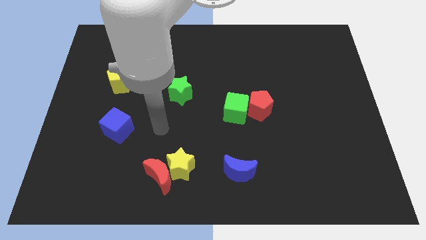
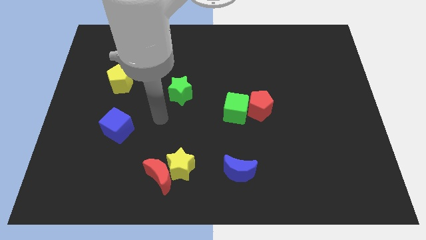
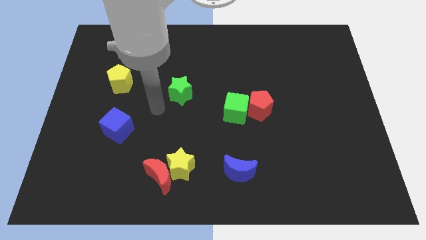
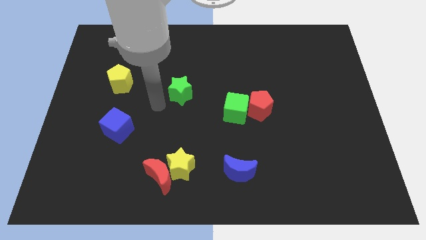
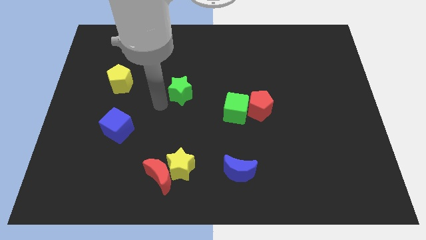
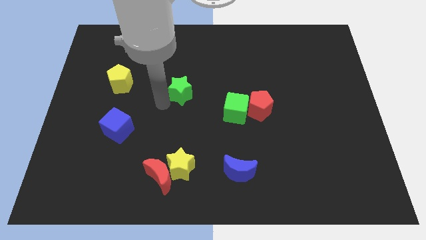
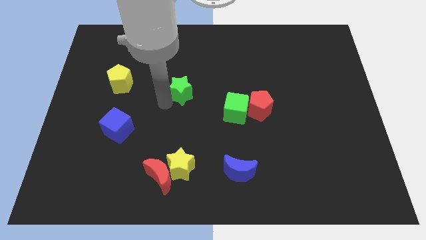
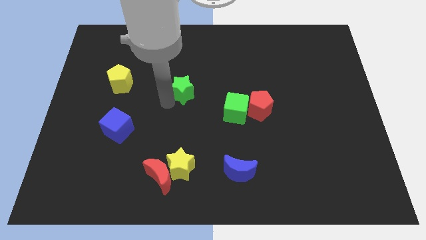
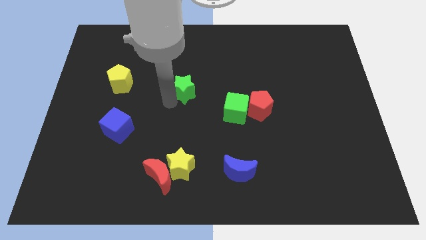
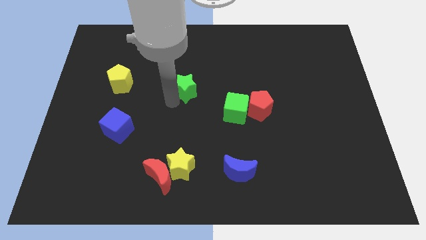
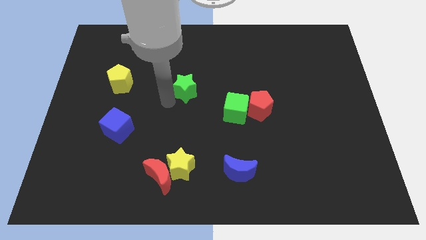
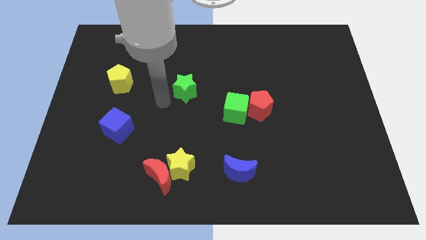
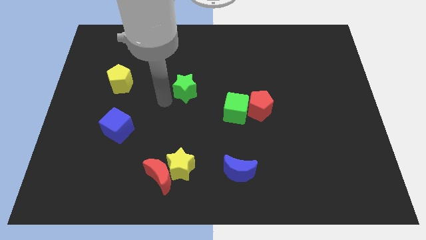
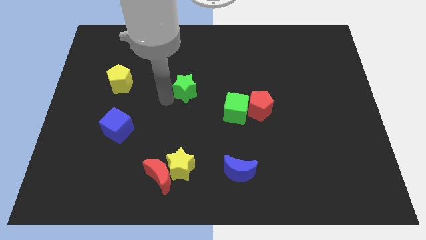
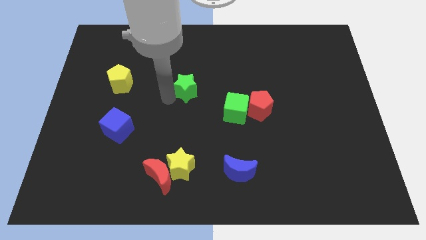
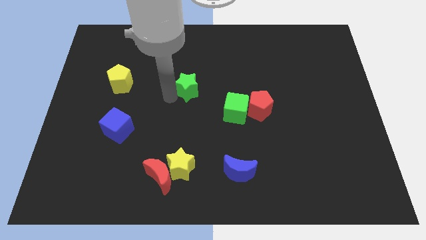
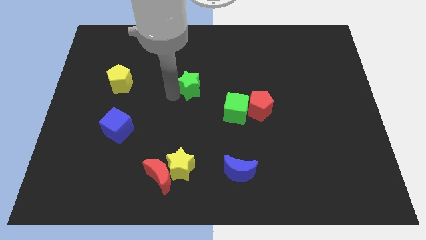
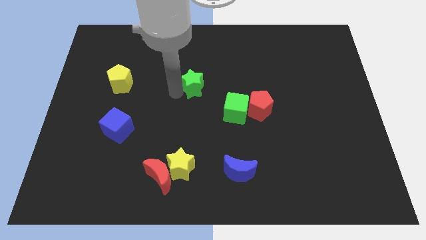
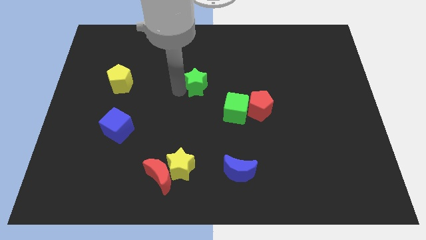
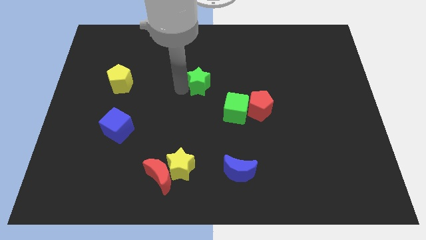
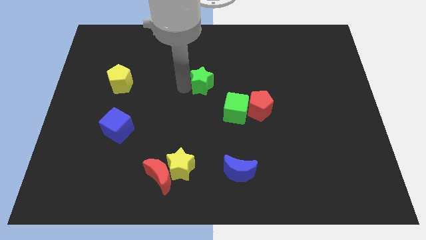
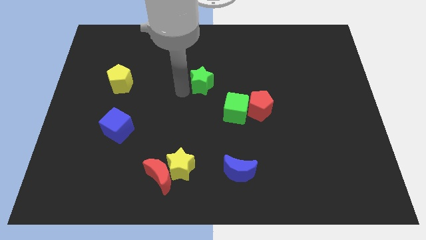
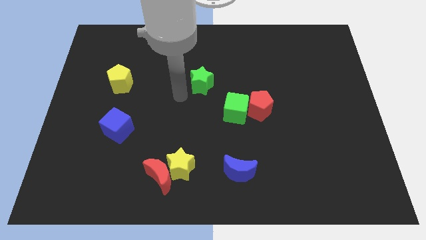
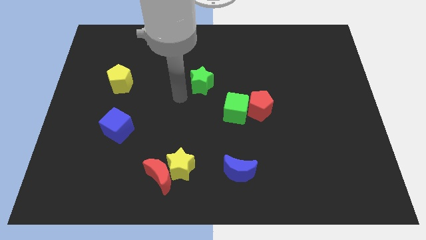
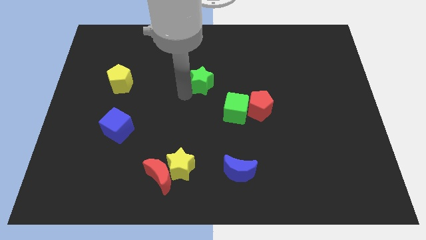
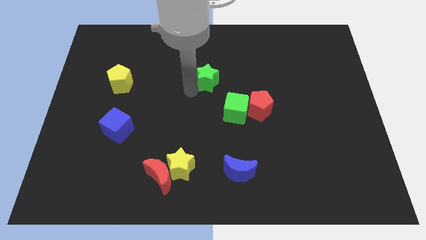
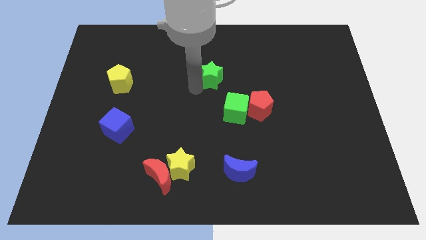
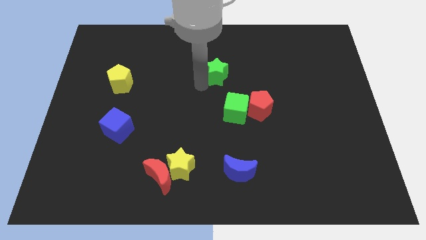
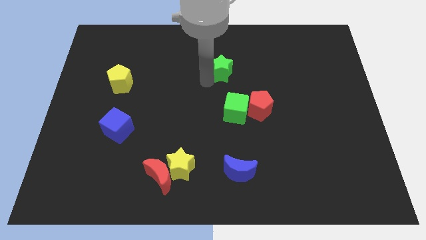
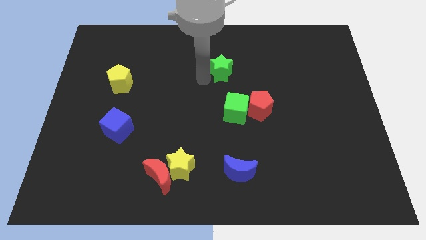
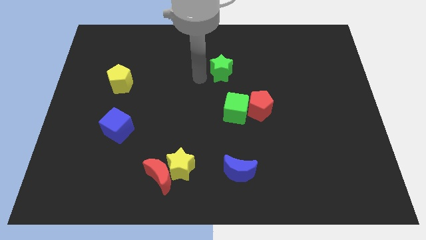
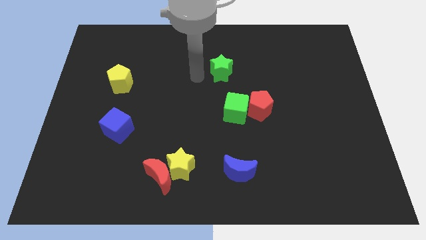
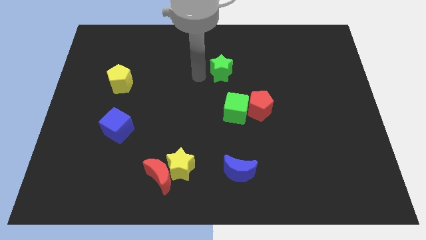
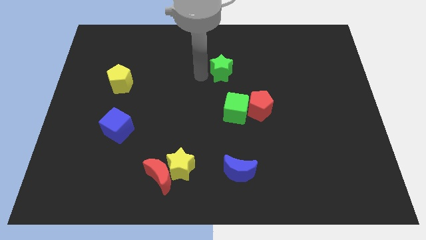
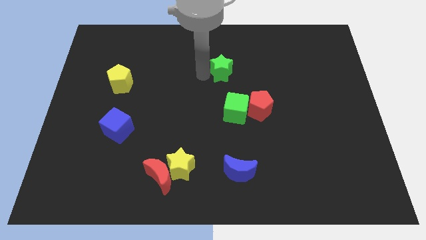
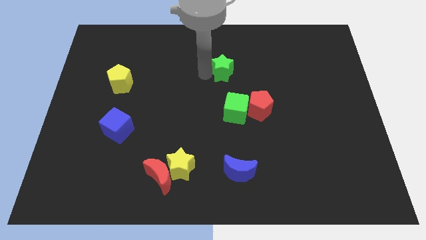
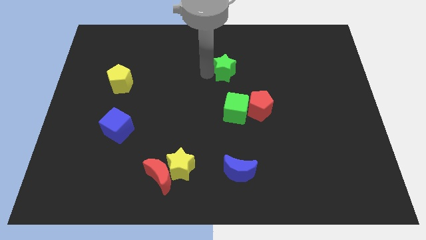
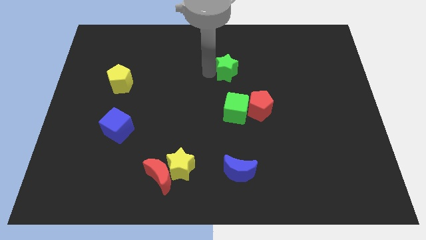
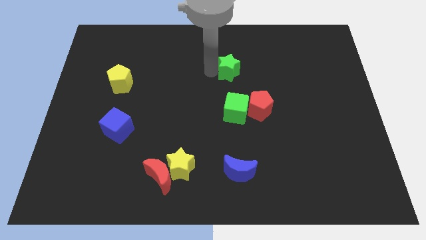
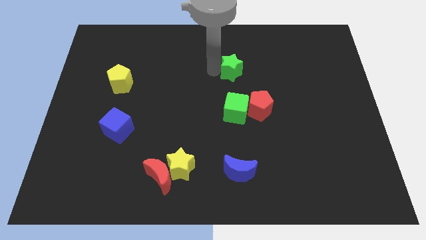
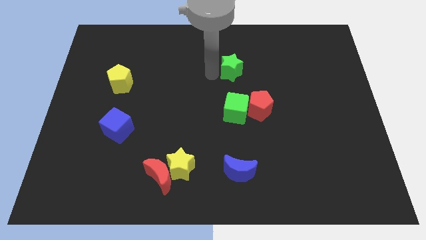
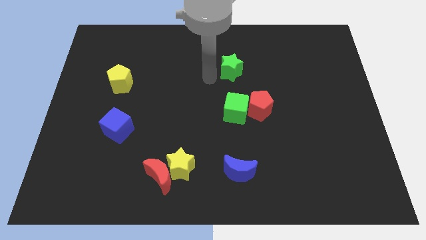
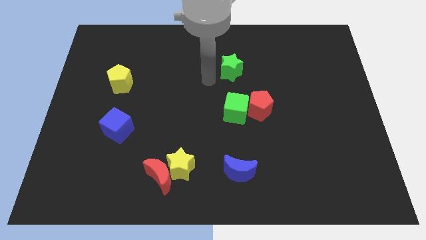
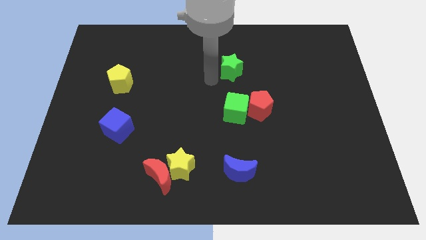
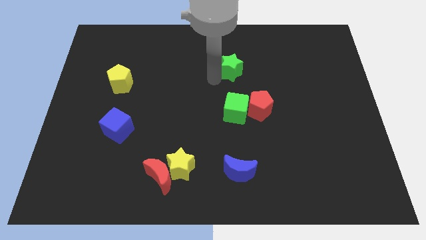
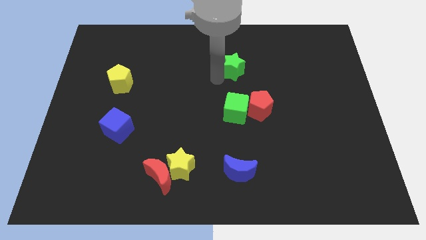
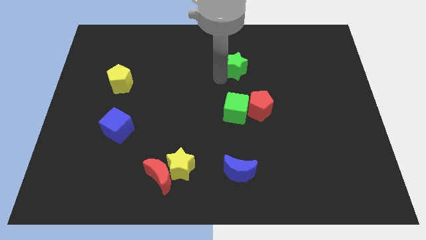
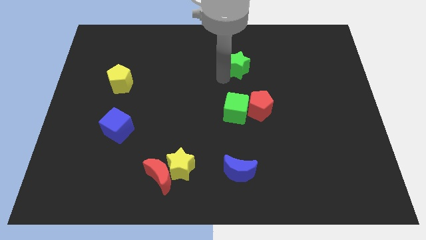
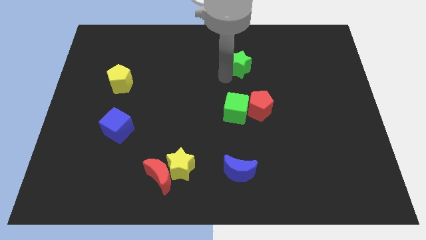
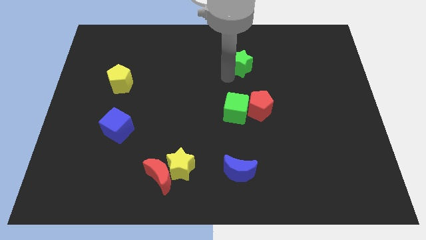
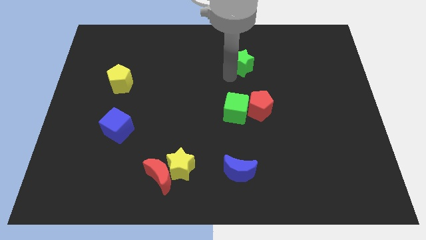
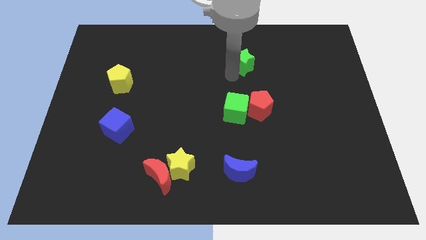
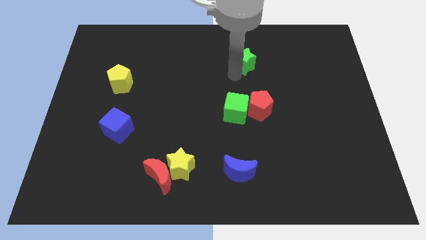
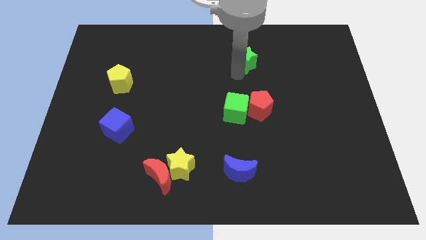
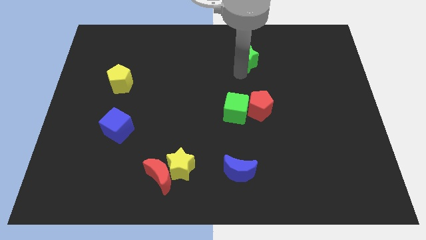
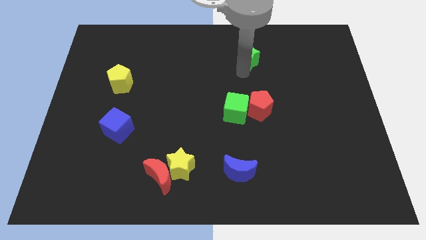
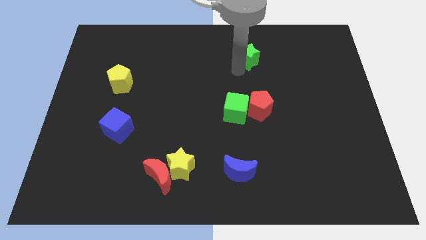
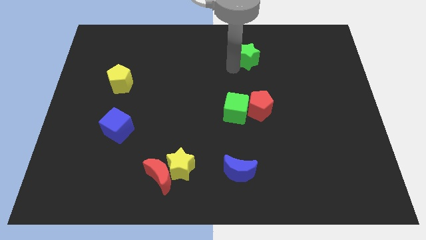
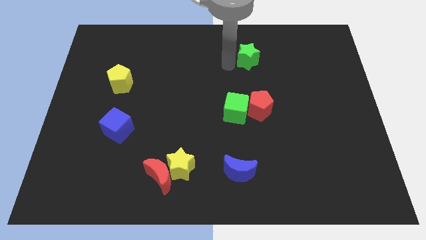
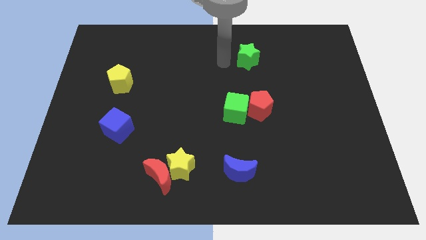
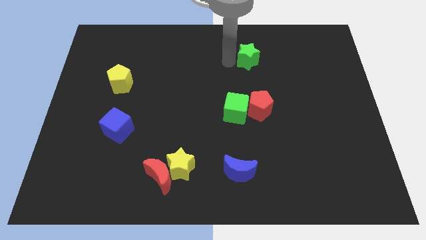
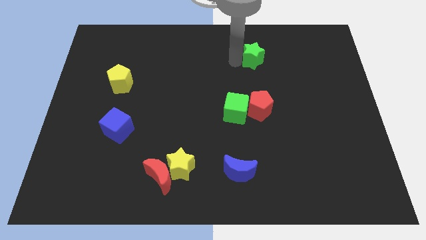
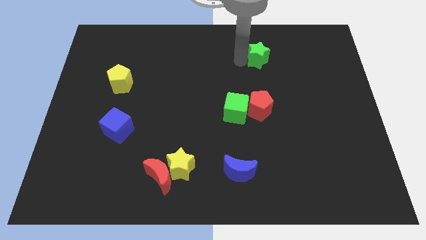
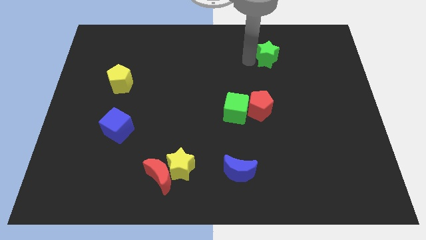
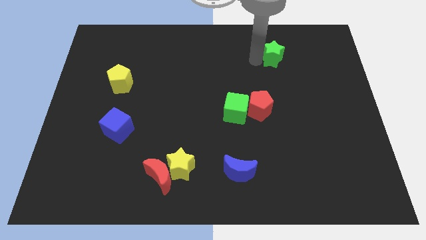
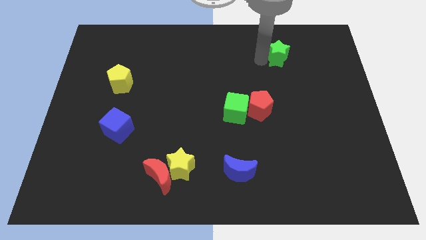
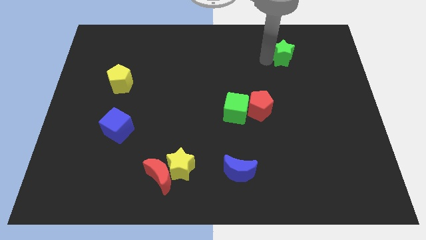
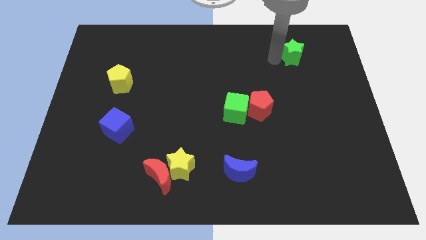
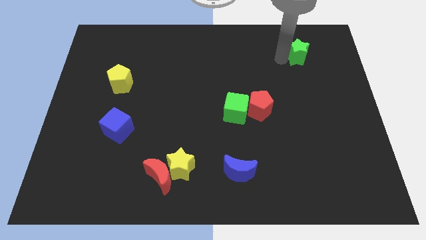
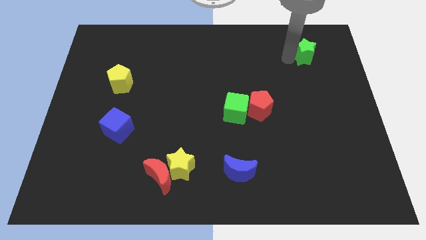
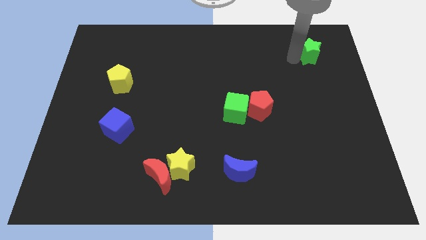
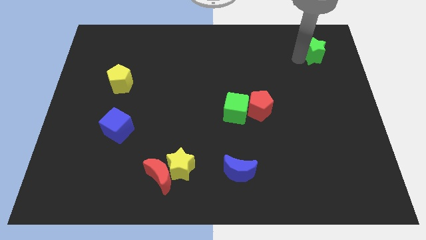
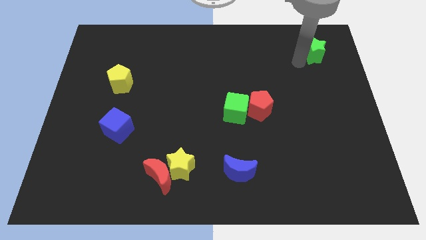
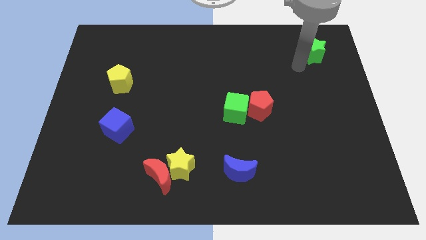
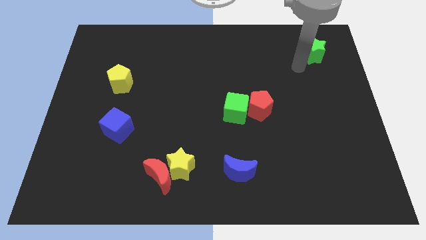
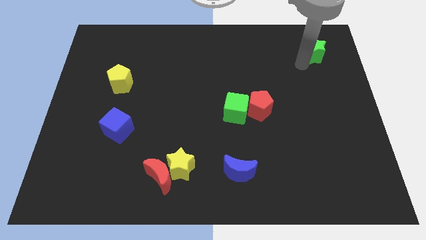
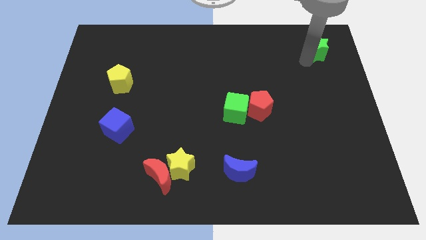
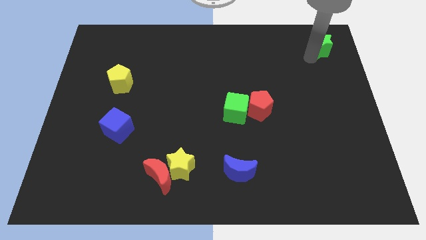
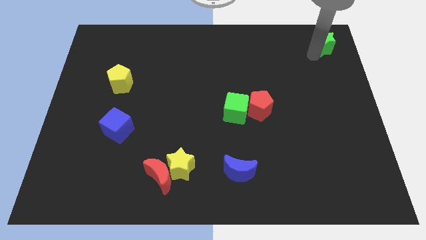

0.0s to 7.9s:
slide the green star to the upper right corner
